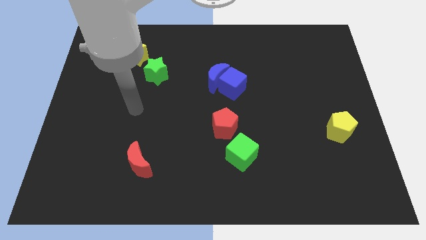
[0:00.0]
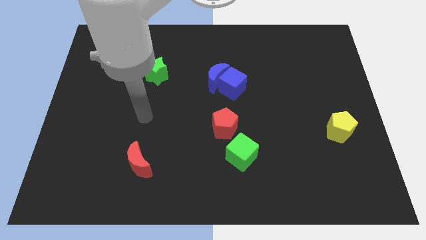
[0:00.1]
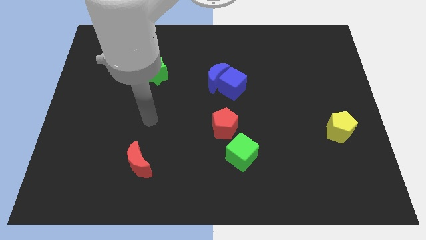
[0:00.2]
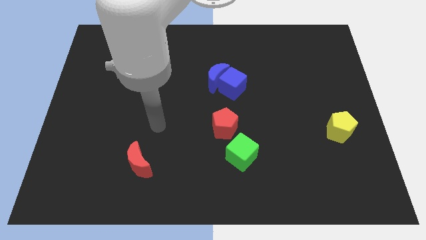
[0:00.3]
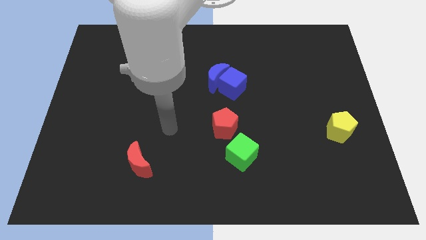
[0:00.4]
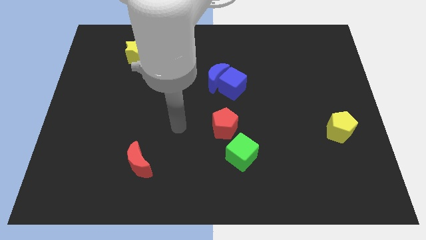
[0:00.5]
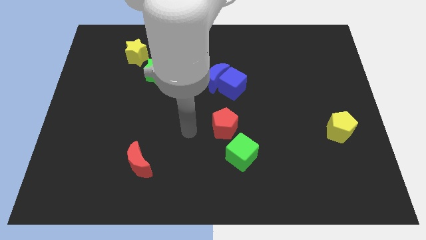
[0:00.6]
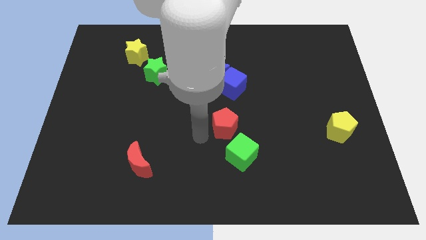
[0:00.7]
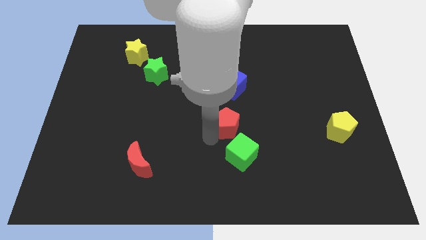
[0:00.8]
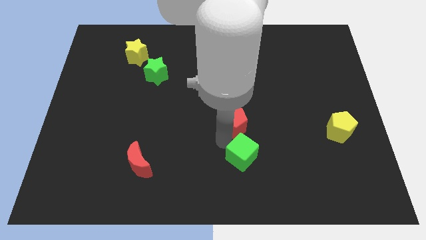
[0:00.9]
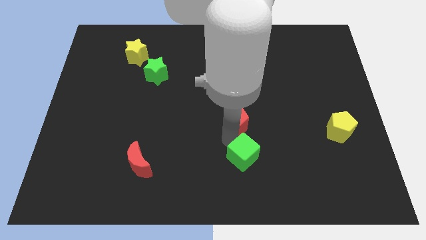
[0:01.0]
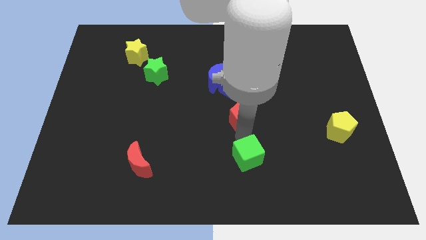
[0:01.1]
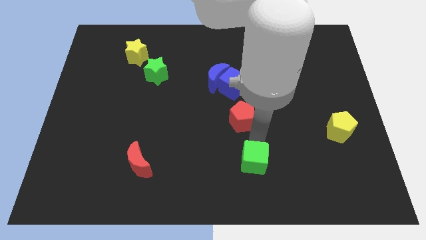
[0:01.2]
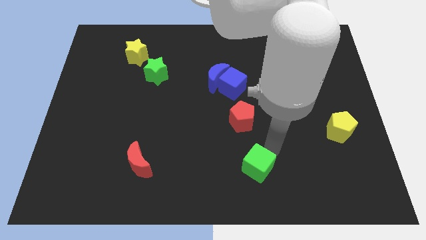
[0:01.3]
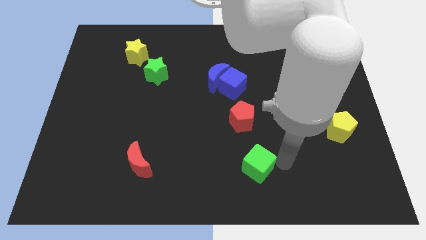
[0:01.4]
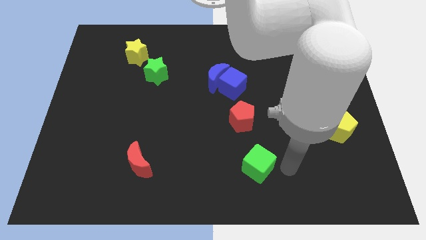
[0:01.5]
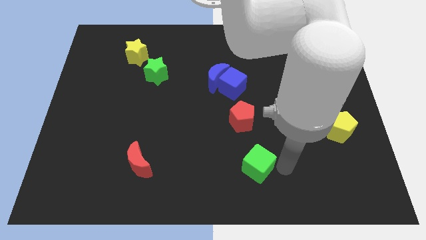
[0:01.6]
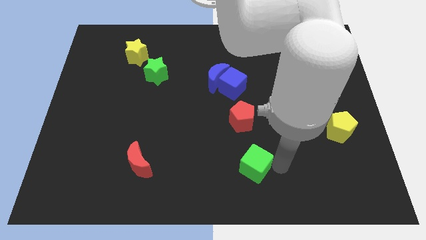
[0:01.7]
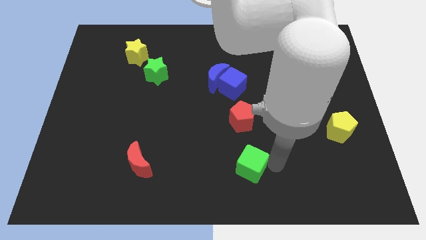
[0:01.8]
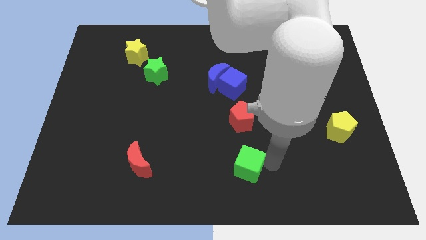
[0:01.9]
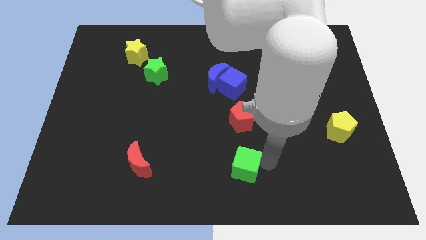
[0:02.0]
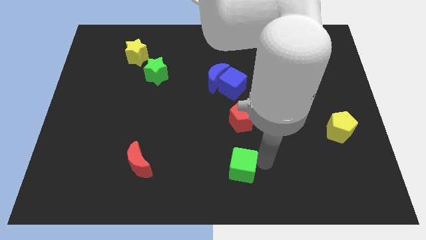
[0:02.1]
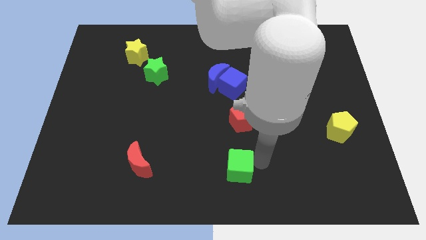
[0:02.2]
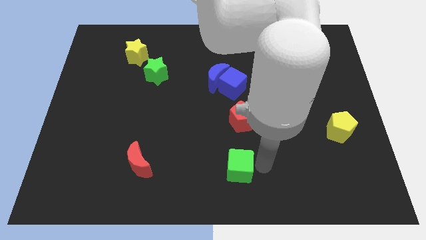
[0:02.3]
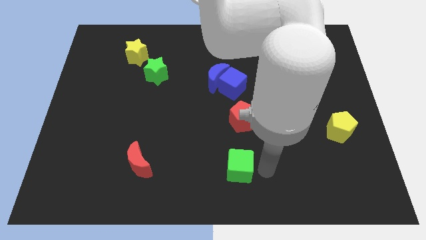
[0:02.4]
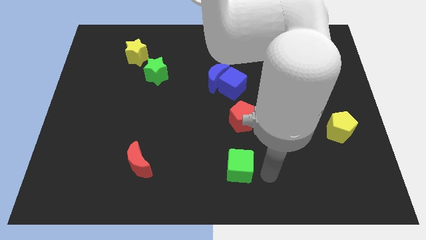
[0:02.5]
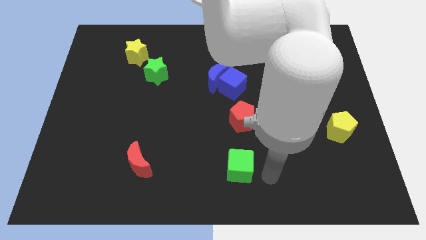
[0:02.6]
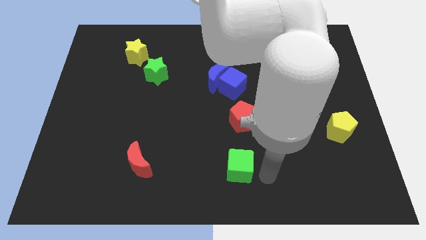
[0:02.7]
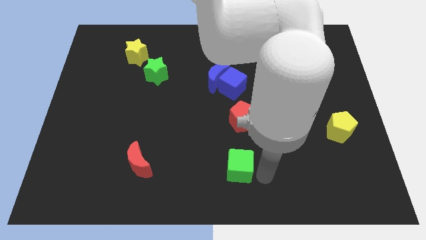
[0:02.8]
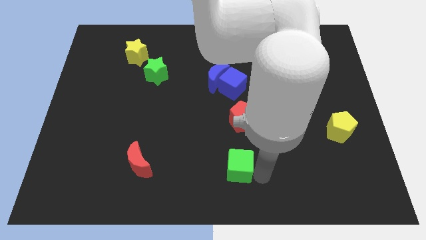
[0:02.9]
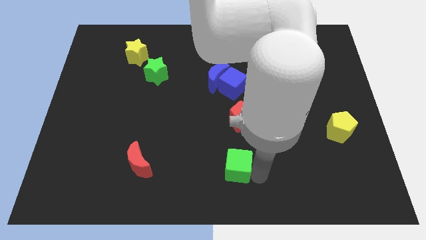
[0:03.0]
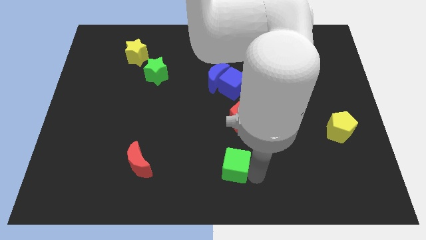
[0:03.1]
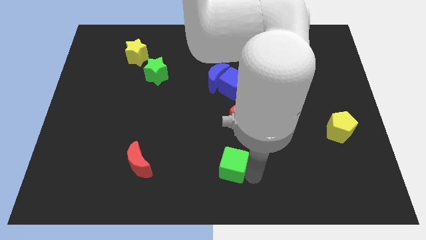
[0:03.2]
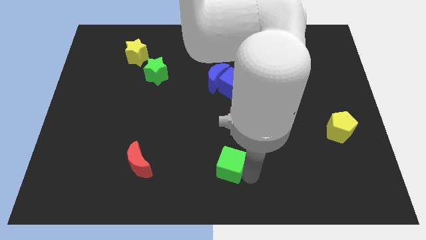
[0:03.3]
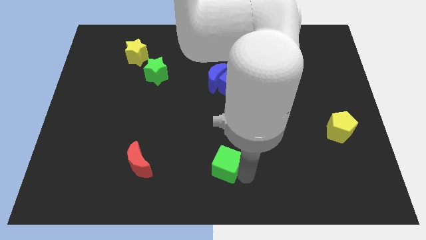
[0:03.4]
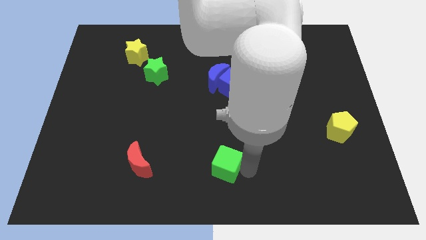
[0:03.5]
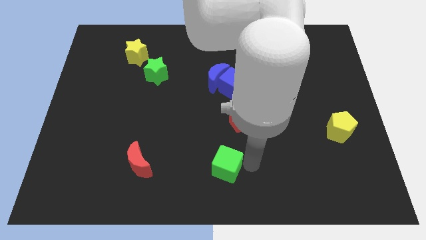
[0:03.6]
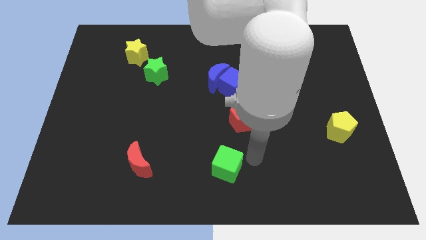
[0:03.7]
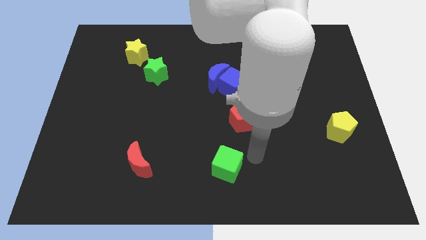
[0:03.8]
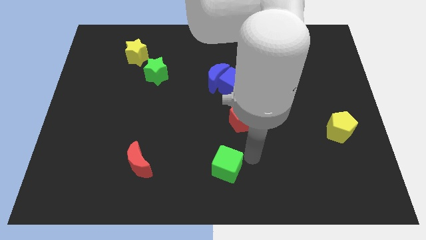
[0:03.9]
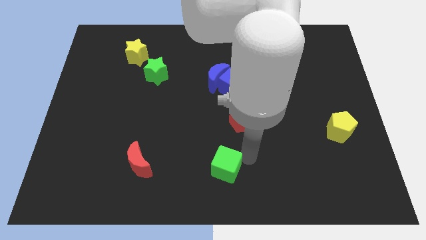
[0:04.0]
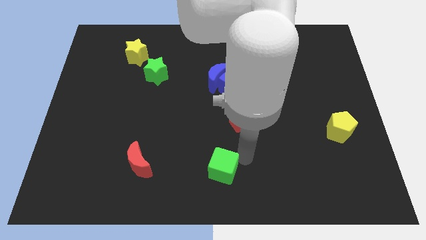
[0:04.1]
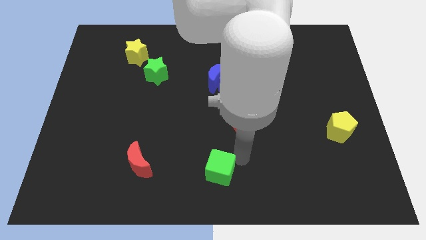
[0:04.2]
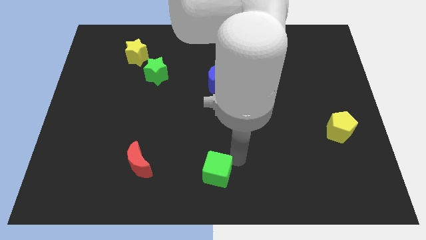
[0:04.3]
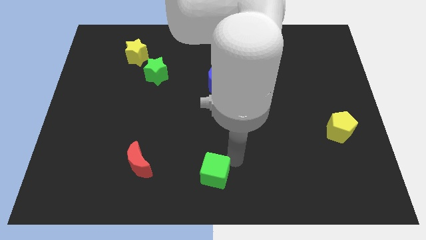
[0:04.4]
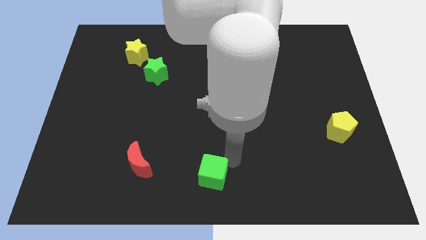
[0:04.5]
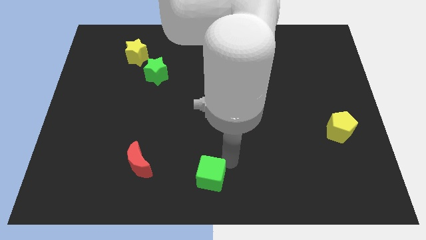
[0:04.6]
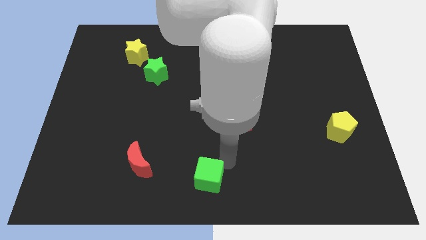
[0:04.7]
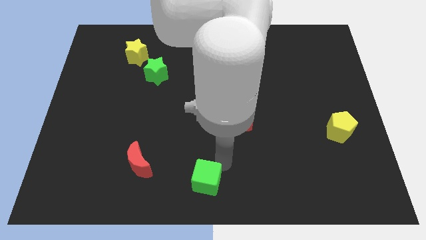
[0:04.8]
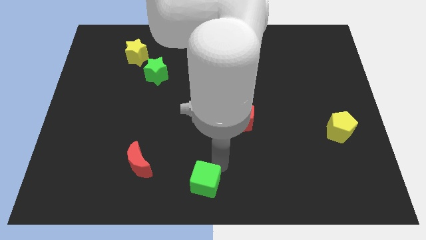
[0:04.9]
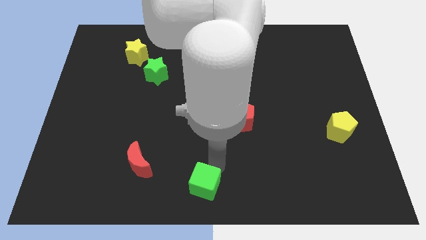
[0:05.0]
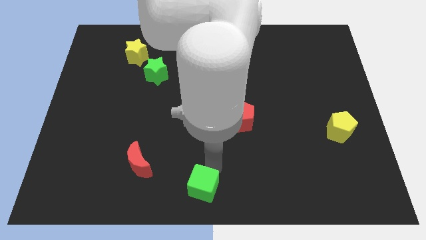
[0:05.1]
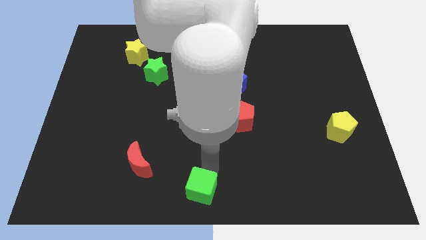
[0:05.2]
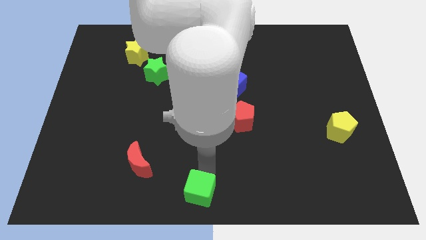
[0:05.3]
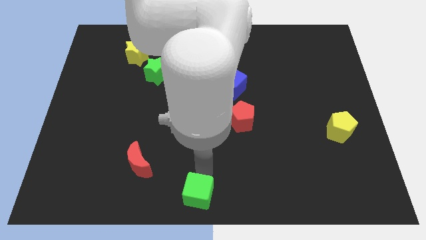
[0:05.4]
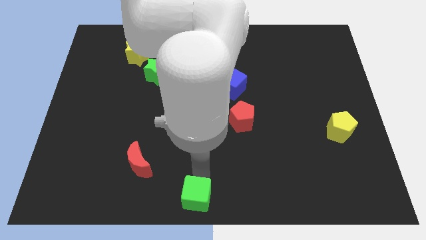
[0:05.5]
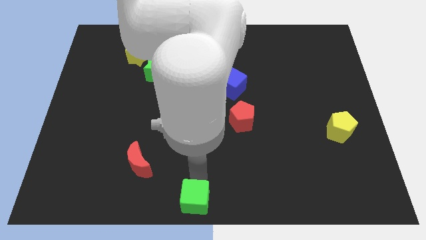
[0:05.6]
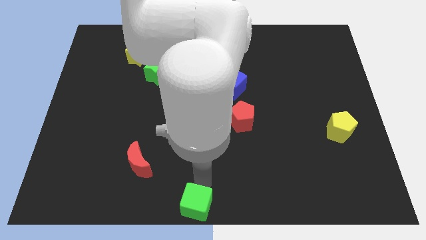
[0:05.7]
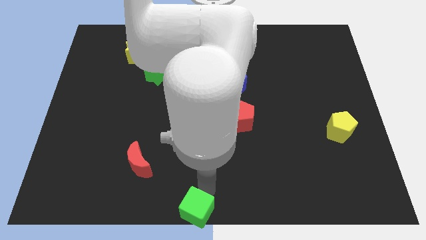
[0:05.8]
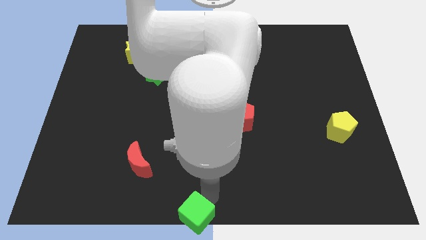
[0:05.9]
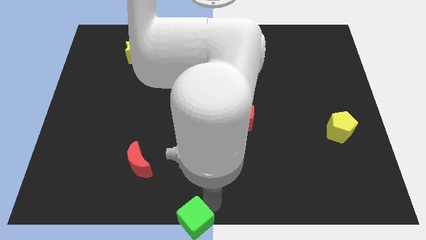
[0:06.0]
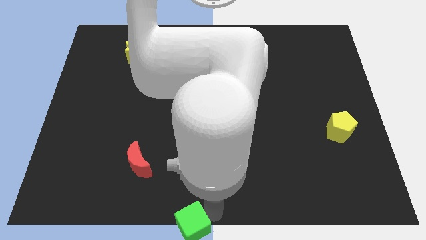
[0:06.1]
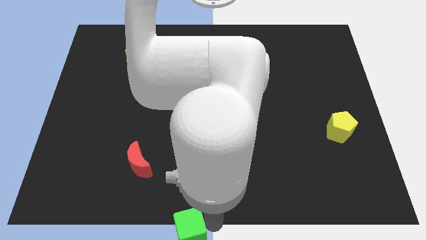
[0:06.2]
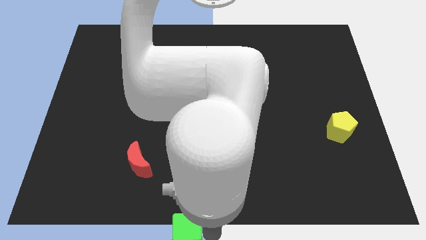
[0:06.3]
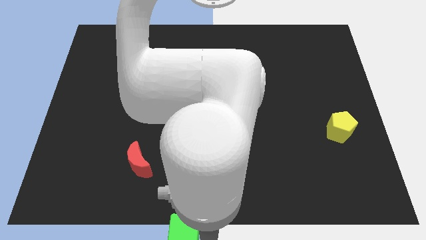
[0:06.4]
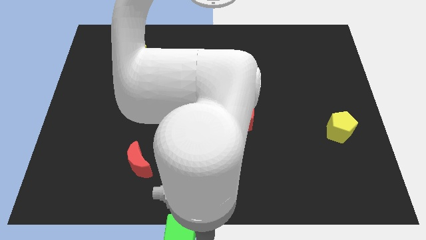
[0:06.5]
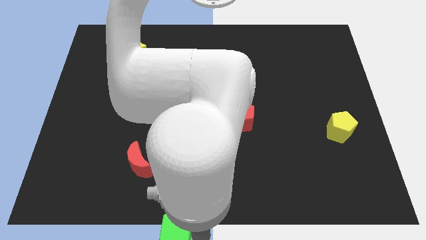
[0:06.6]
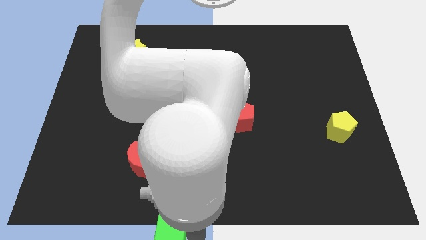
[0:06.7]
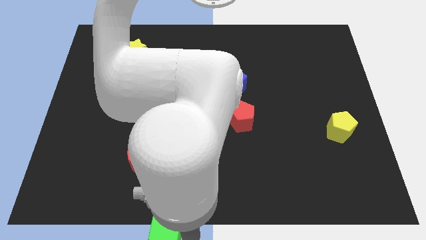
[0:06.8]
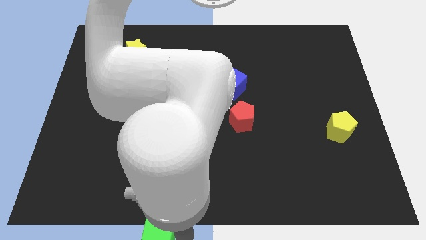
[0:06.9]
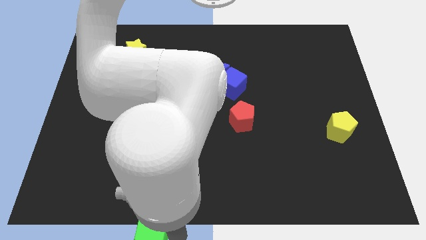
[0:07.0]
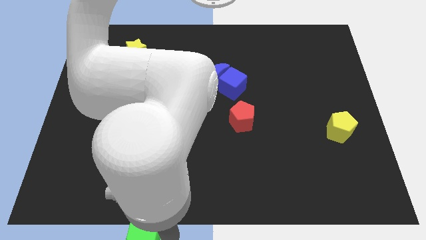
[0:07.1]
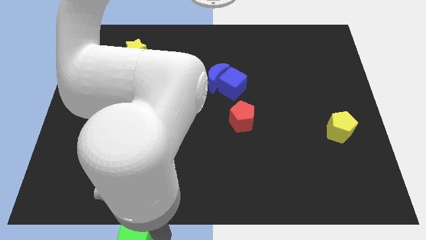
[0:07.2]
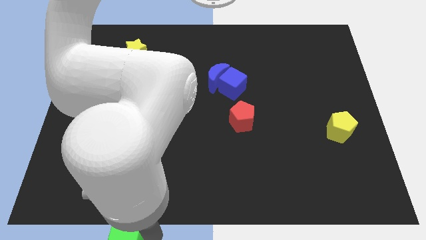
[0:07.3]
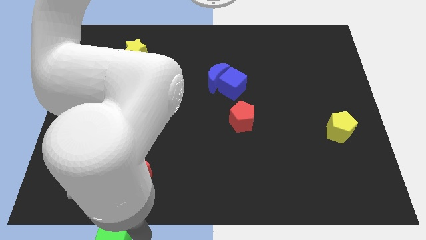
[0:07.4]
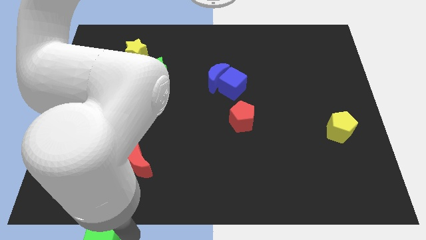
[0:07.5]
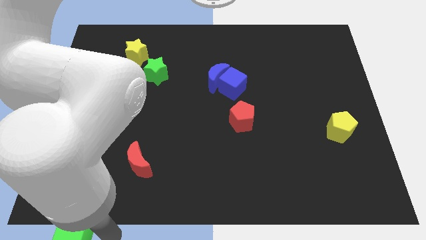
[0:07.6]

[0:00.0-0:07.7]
push the green cube to the bottom left
